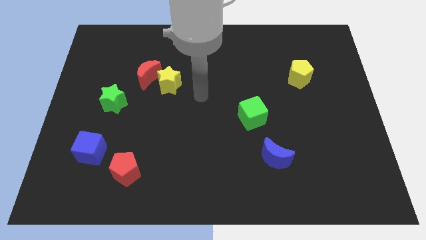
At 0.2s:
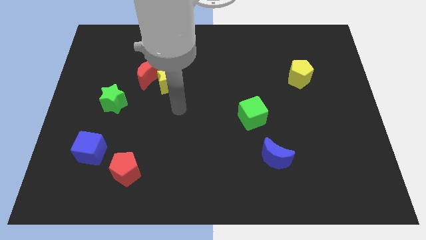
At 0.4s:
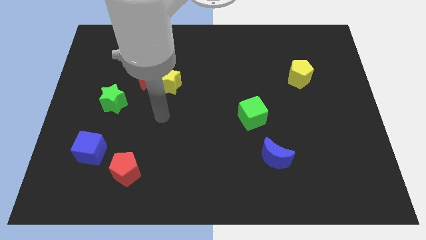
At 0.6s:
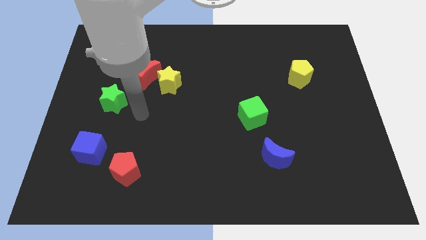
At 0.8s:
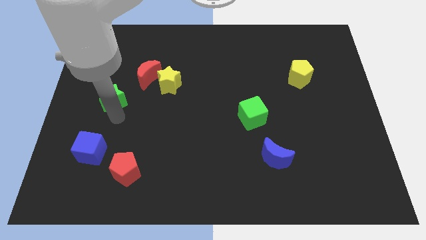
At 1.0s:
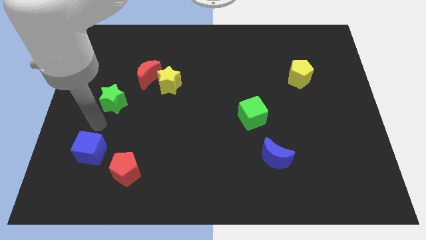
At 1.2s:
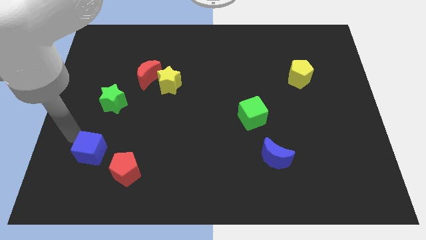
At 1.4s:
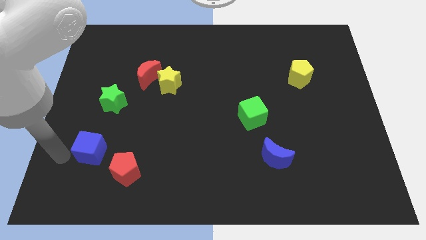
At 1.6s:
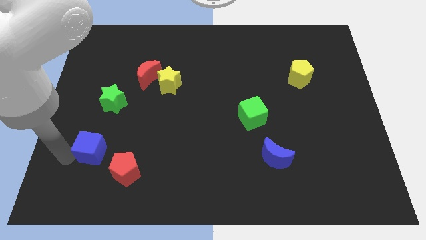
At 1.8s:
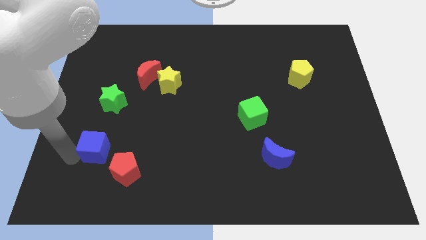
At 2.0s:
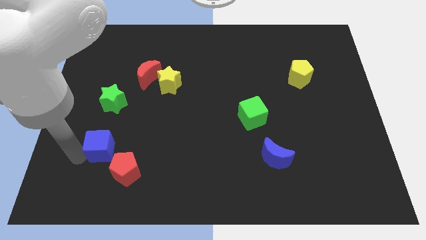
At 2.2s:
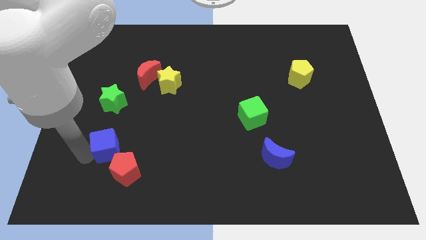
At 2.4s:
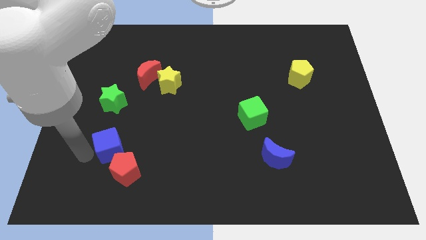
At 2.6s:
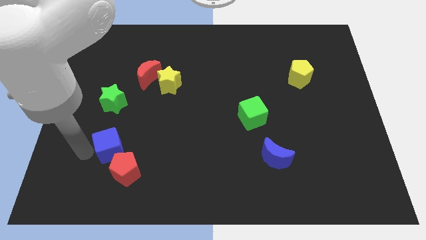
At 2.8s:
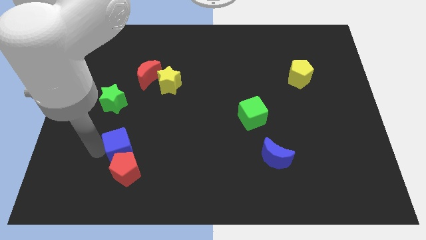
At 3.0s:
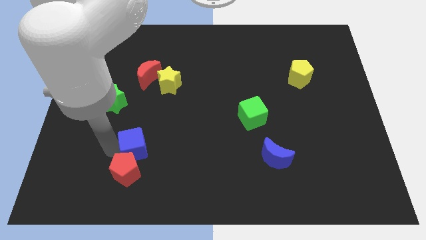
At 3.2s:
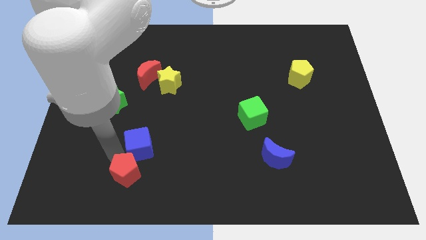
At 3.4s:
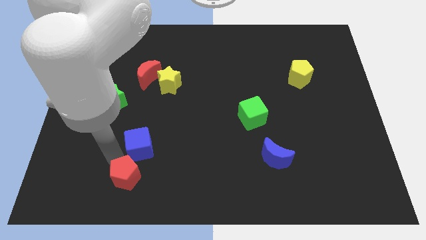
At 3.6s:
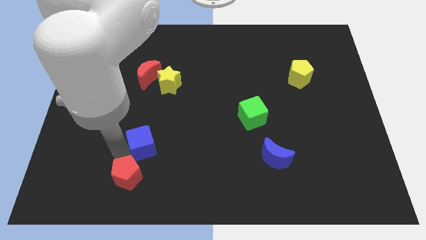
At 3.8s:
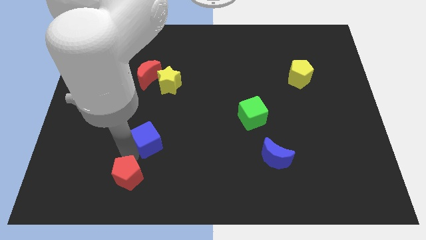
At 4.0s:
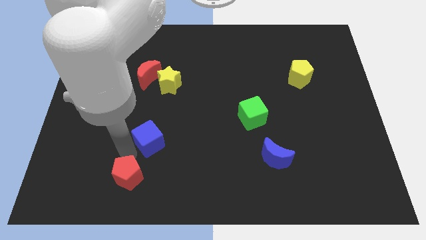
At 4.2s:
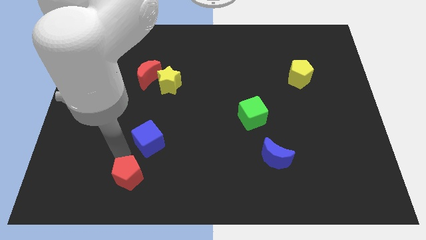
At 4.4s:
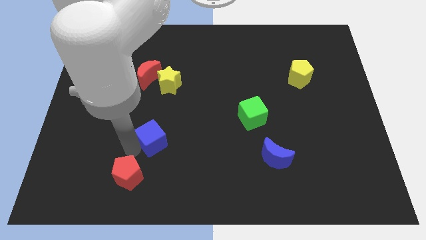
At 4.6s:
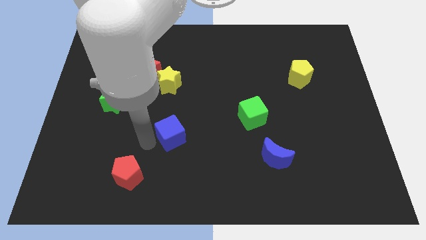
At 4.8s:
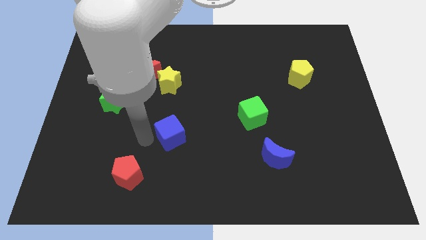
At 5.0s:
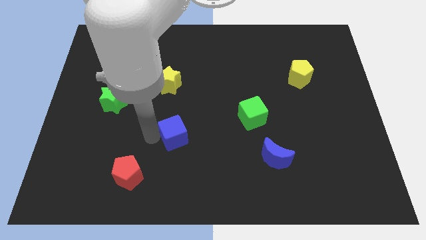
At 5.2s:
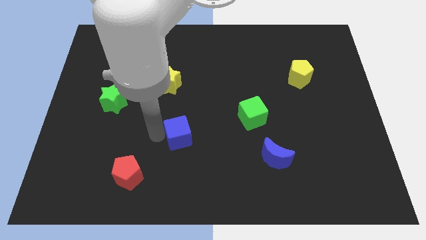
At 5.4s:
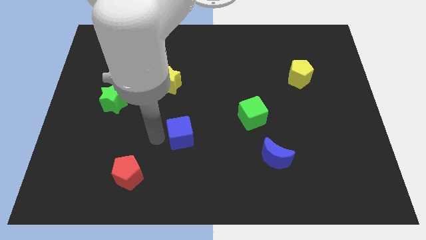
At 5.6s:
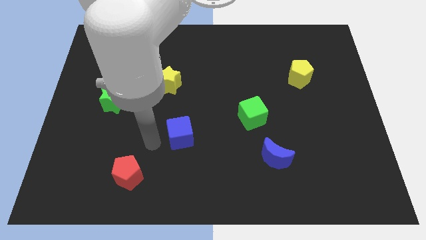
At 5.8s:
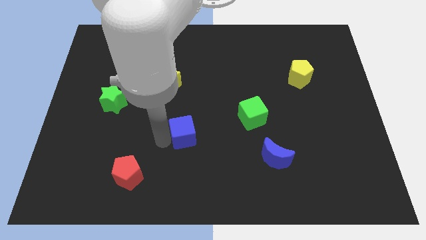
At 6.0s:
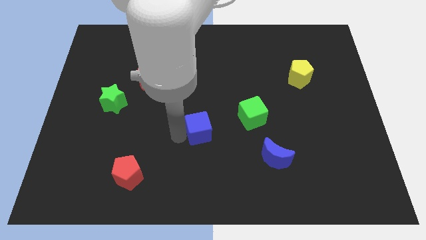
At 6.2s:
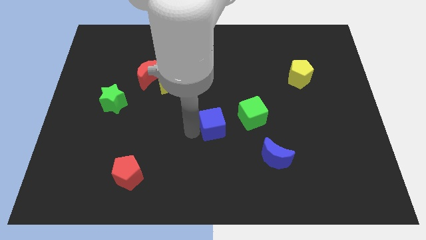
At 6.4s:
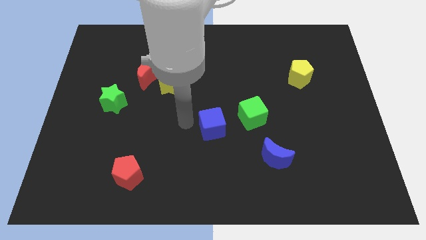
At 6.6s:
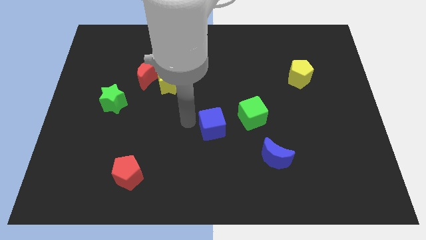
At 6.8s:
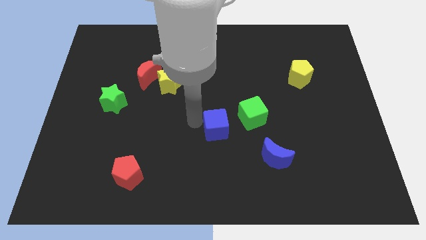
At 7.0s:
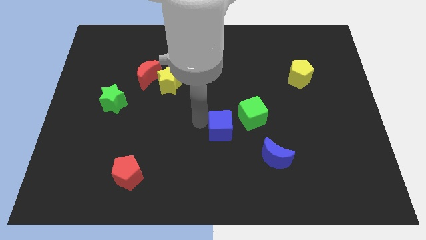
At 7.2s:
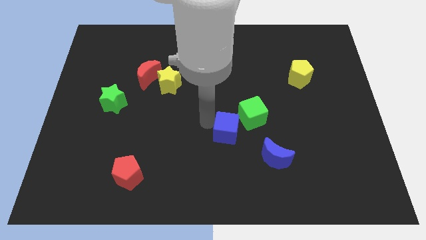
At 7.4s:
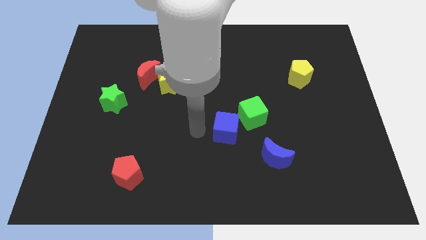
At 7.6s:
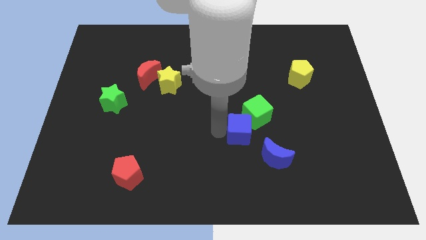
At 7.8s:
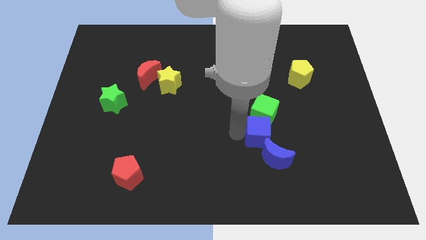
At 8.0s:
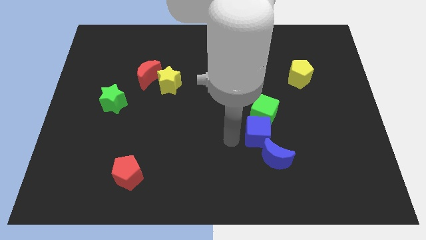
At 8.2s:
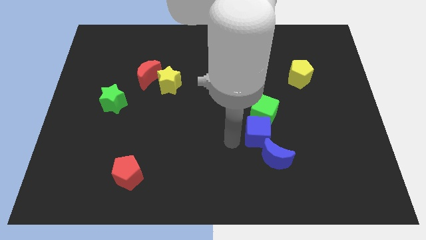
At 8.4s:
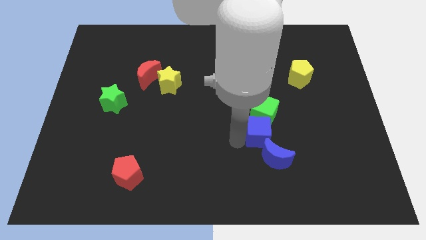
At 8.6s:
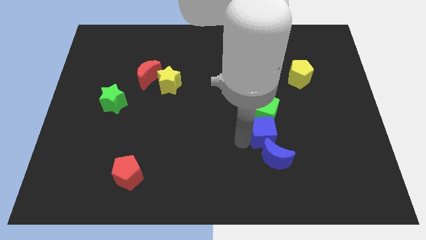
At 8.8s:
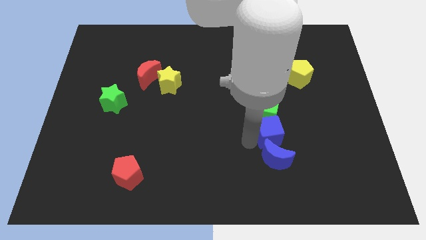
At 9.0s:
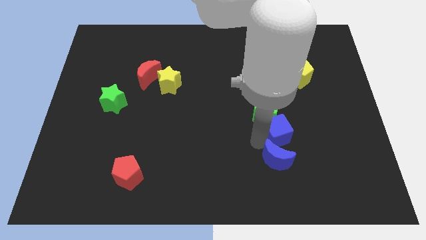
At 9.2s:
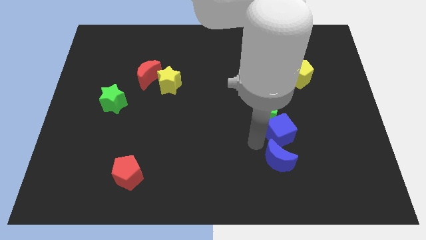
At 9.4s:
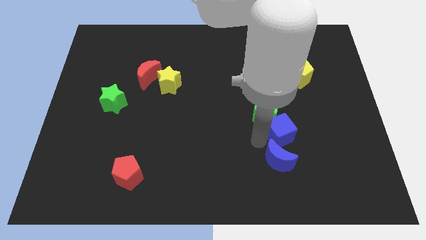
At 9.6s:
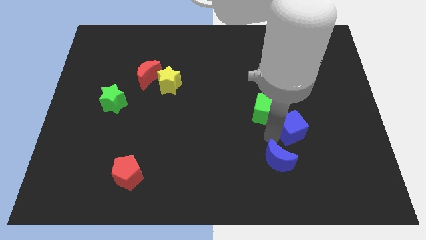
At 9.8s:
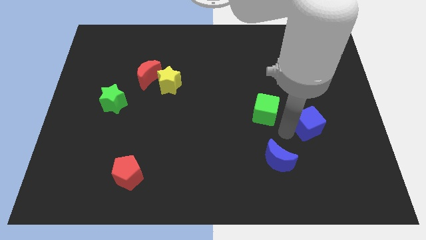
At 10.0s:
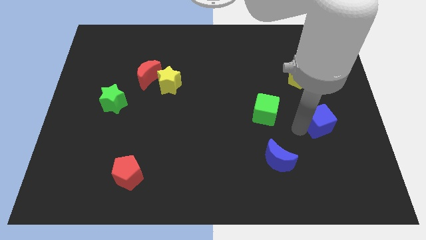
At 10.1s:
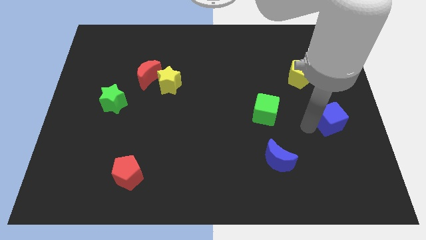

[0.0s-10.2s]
push the blue cube to the right side of the board

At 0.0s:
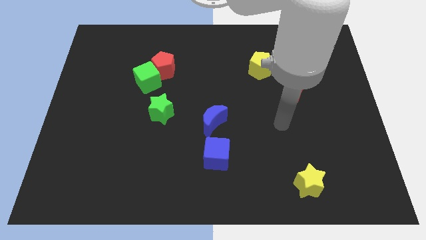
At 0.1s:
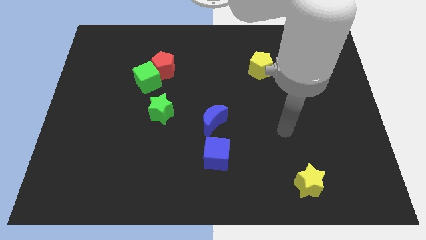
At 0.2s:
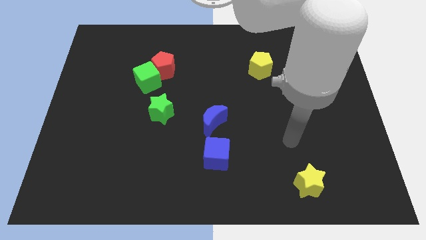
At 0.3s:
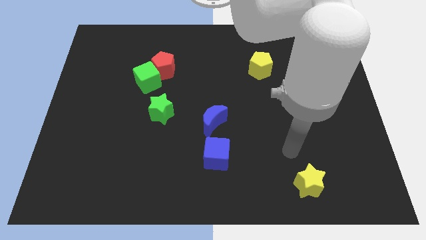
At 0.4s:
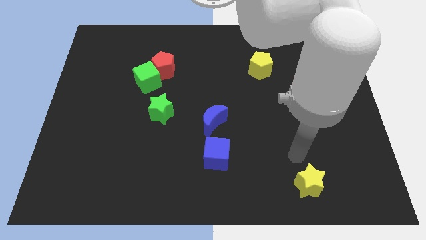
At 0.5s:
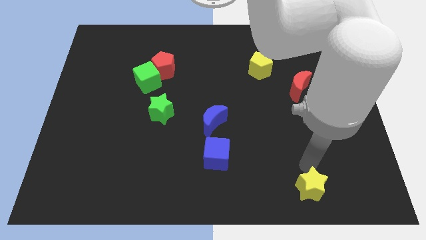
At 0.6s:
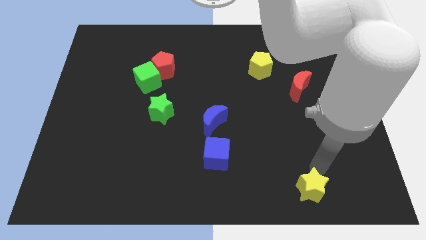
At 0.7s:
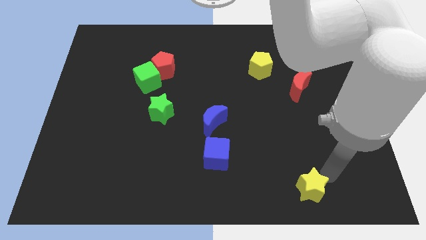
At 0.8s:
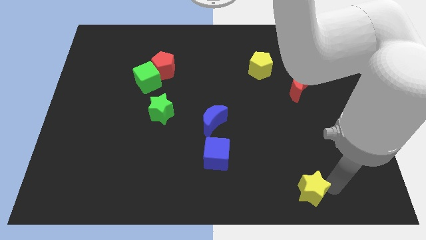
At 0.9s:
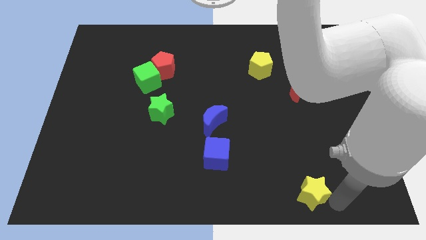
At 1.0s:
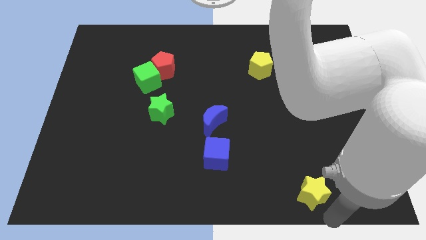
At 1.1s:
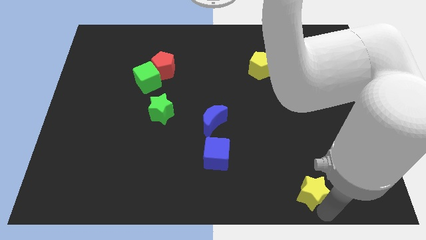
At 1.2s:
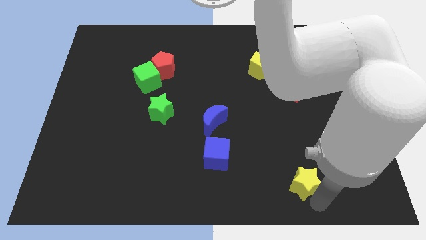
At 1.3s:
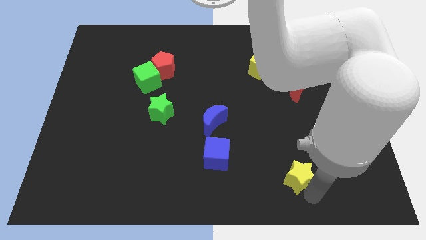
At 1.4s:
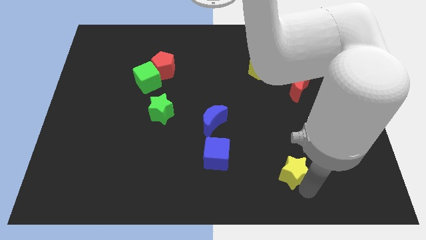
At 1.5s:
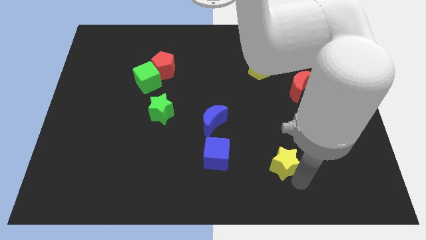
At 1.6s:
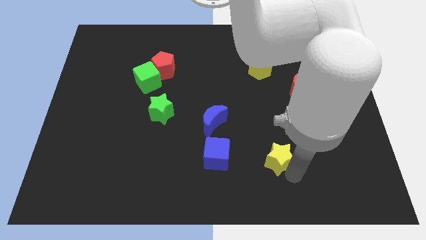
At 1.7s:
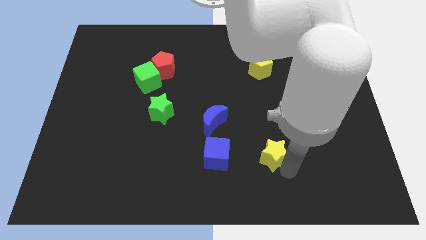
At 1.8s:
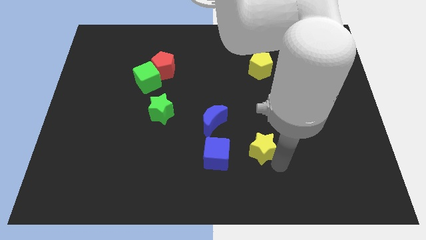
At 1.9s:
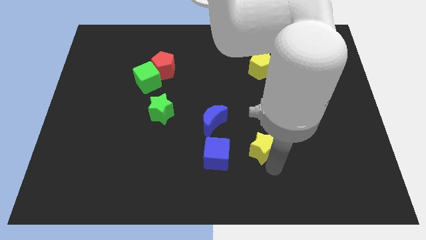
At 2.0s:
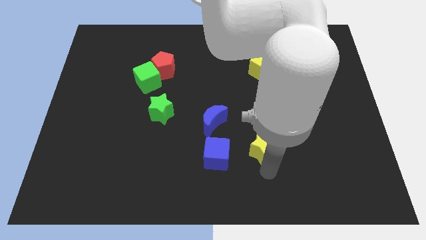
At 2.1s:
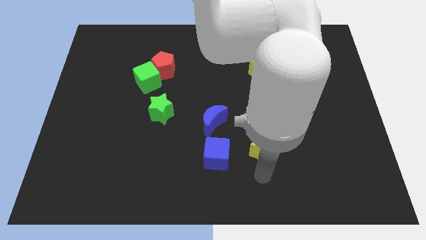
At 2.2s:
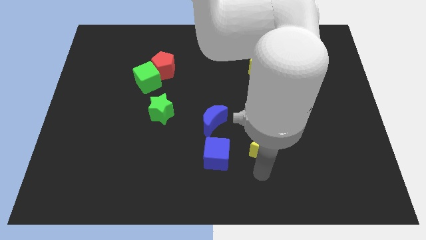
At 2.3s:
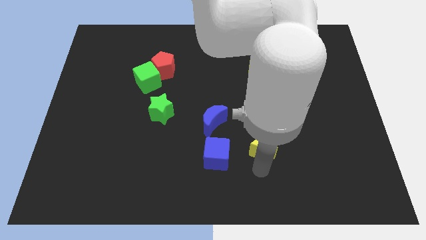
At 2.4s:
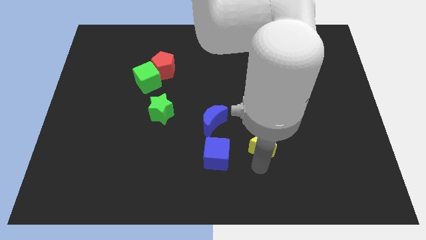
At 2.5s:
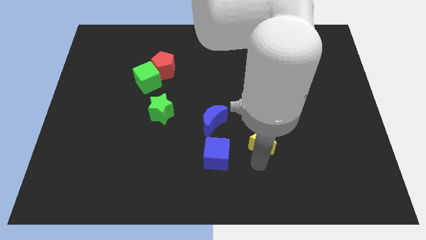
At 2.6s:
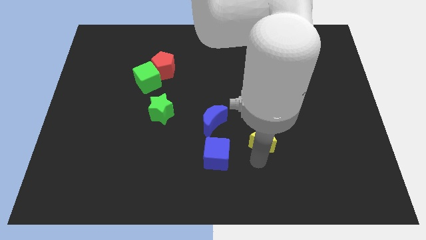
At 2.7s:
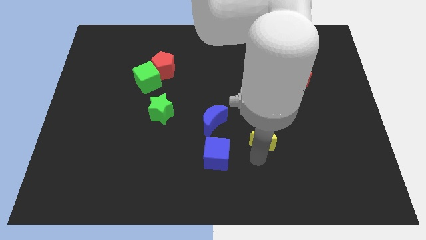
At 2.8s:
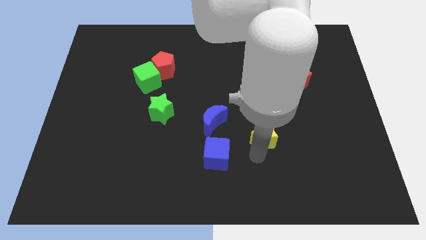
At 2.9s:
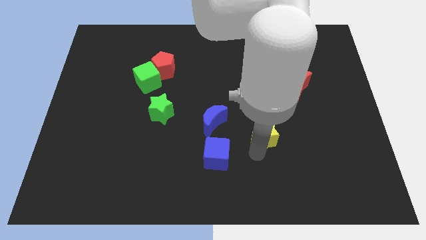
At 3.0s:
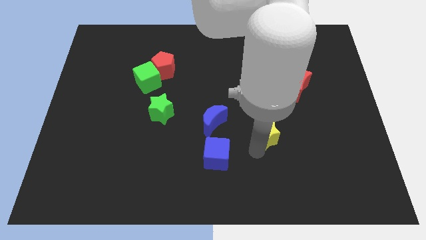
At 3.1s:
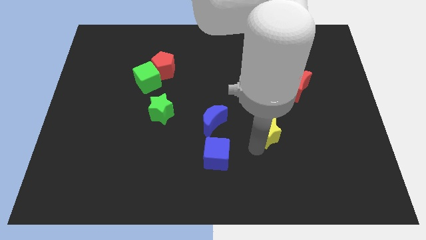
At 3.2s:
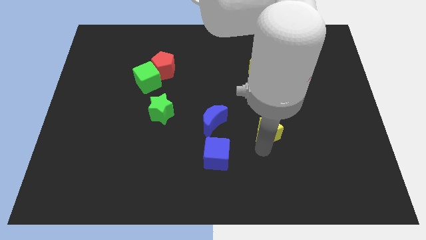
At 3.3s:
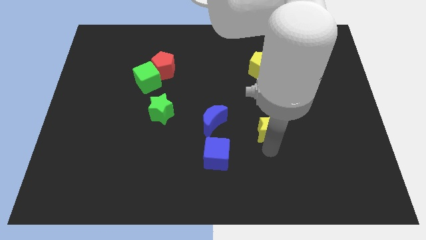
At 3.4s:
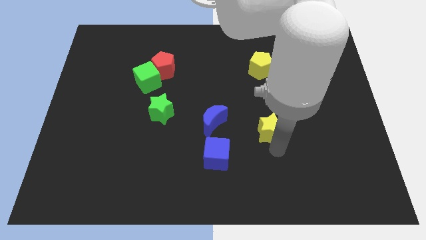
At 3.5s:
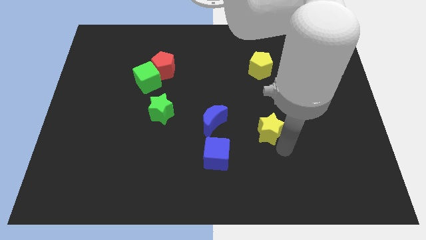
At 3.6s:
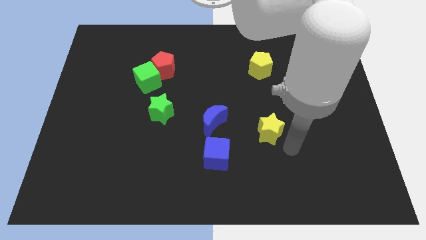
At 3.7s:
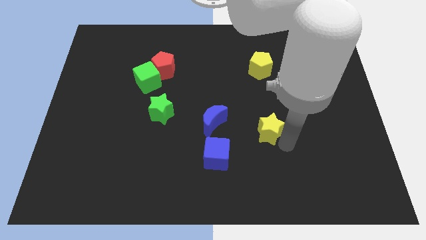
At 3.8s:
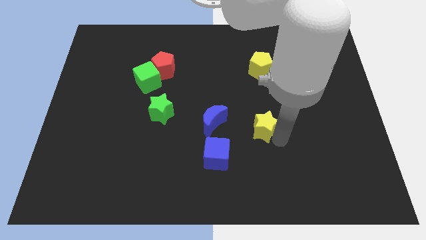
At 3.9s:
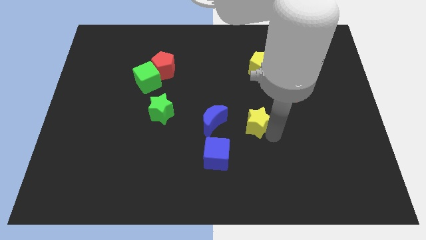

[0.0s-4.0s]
push the yellow star to the center of the board
